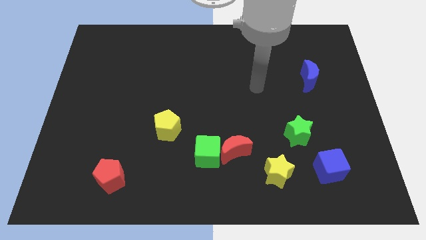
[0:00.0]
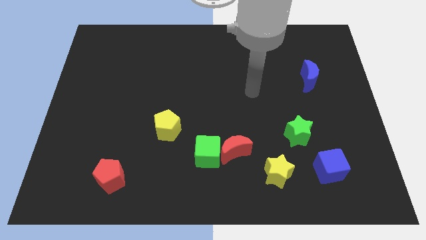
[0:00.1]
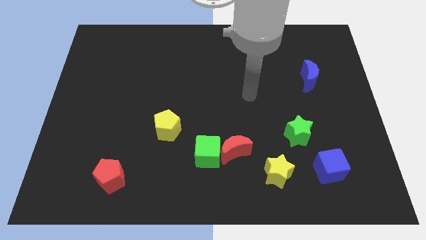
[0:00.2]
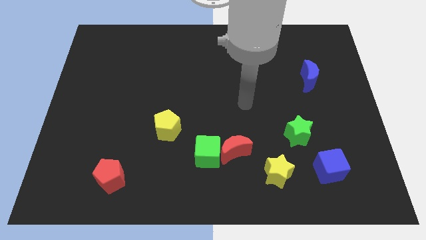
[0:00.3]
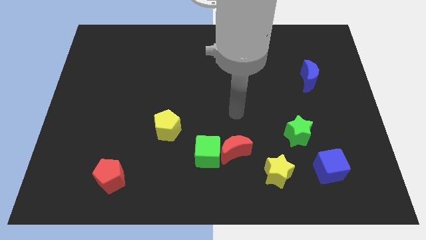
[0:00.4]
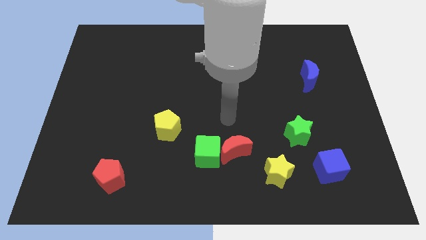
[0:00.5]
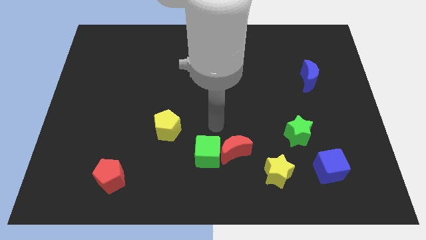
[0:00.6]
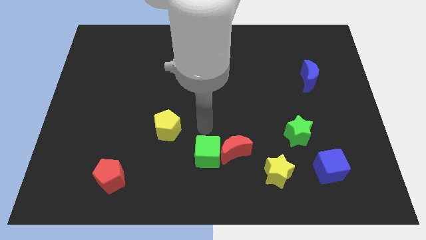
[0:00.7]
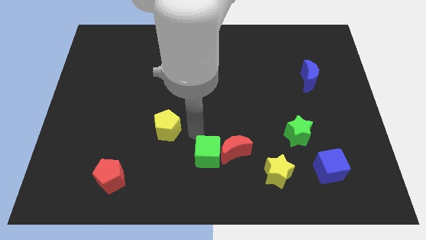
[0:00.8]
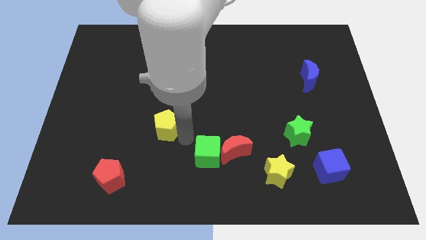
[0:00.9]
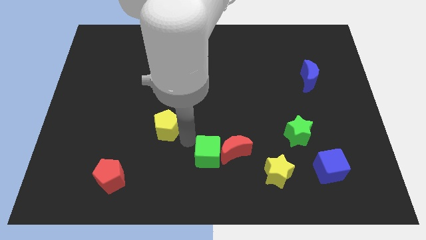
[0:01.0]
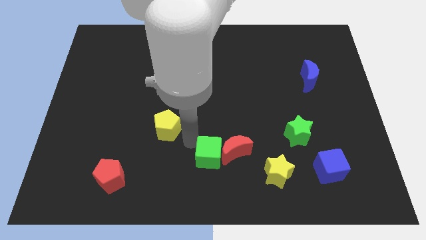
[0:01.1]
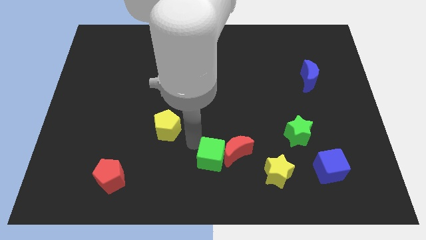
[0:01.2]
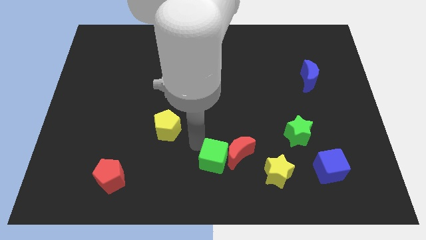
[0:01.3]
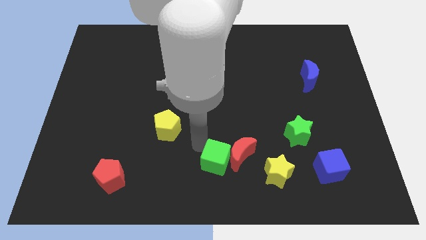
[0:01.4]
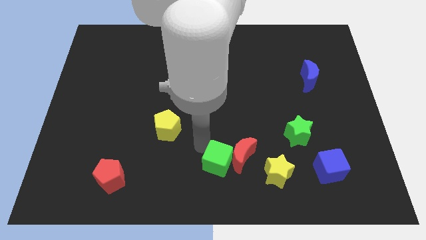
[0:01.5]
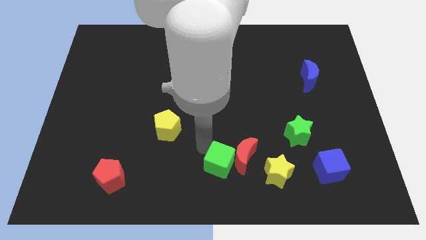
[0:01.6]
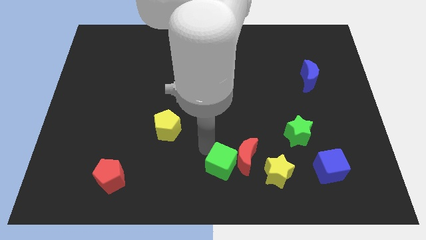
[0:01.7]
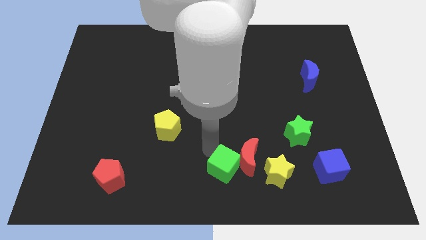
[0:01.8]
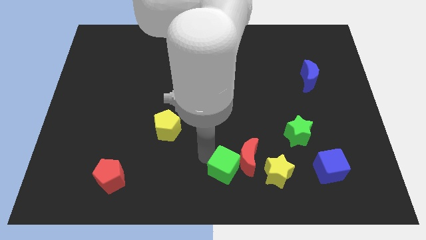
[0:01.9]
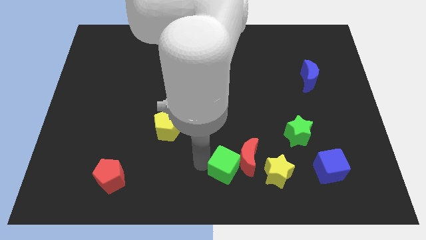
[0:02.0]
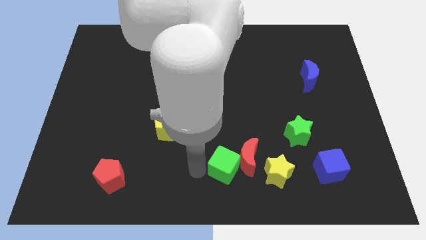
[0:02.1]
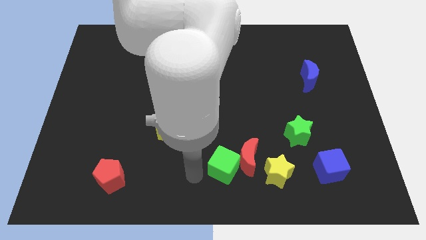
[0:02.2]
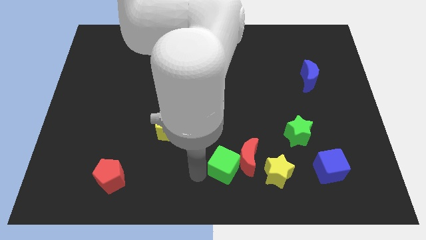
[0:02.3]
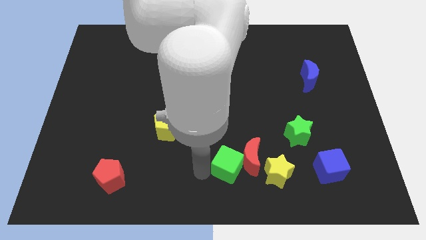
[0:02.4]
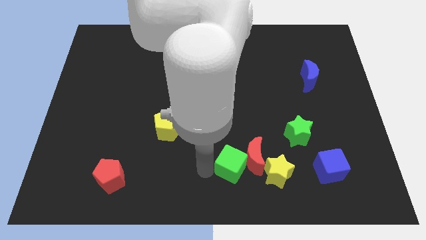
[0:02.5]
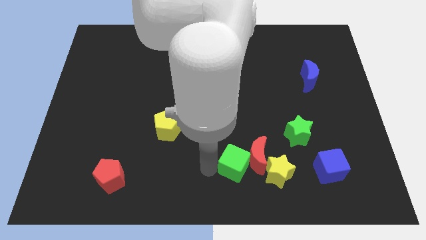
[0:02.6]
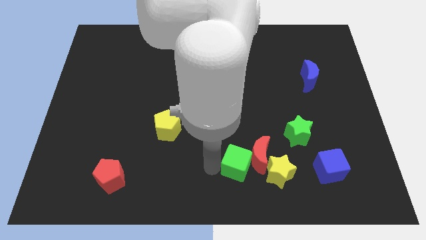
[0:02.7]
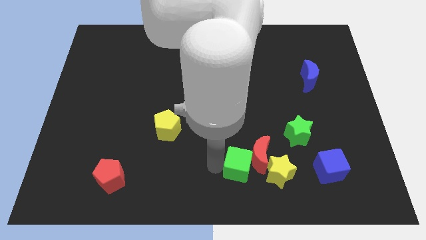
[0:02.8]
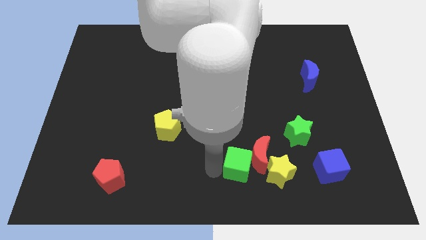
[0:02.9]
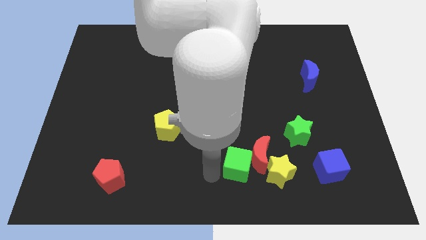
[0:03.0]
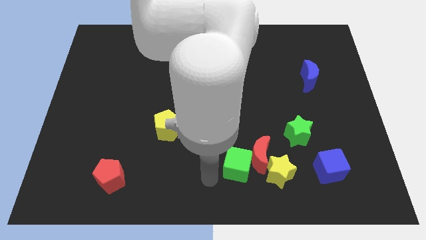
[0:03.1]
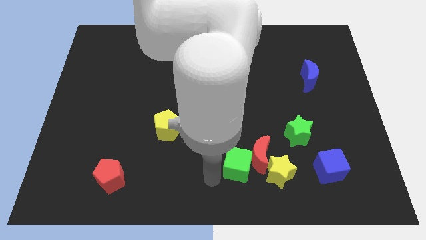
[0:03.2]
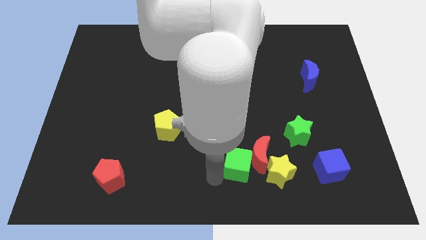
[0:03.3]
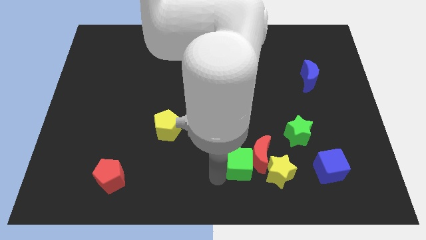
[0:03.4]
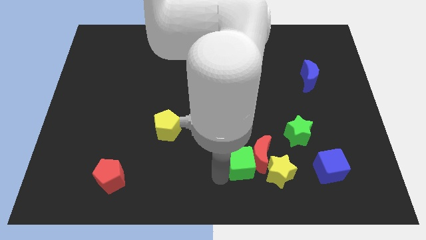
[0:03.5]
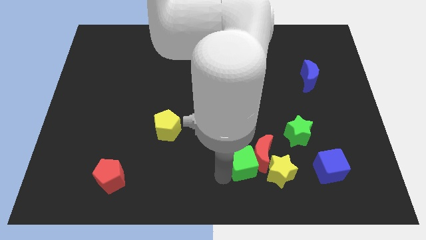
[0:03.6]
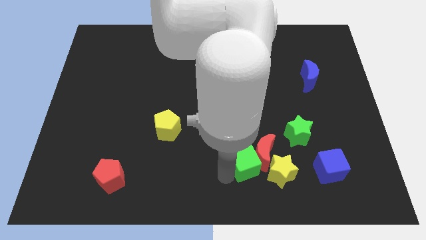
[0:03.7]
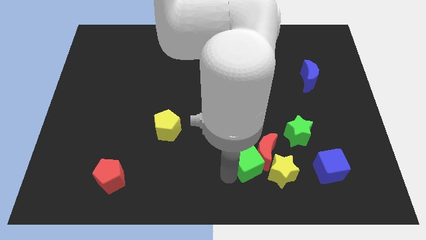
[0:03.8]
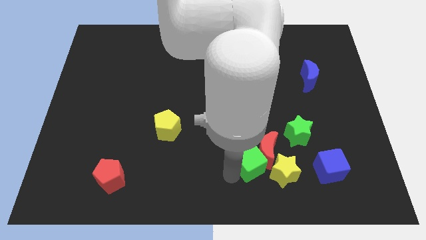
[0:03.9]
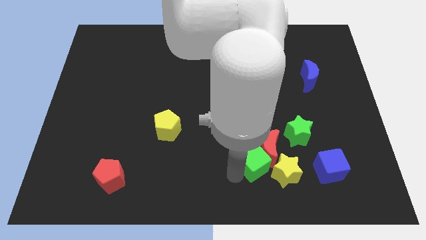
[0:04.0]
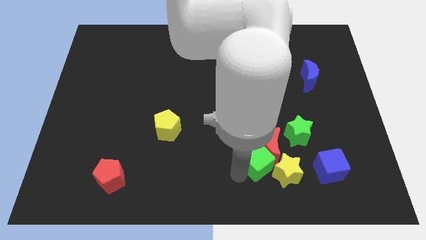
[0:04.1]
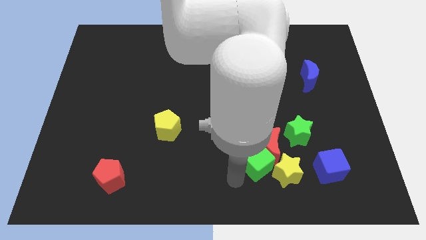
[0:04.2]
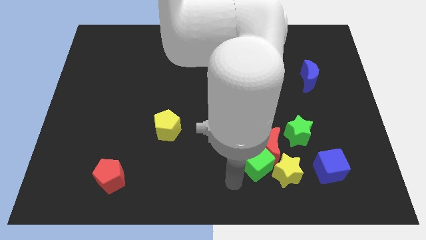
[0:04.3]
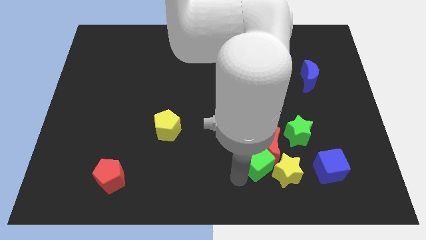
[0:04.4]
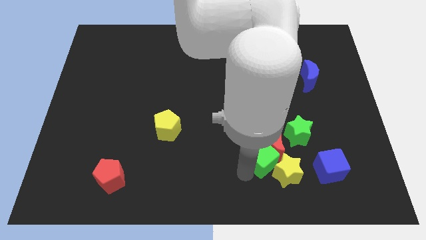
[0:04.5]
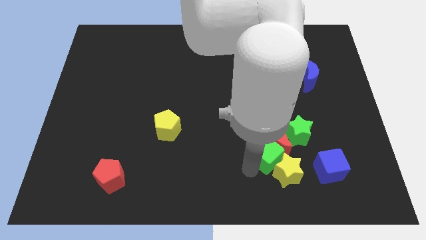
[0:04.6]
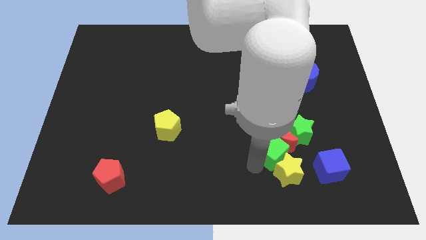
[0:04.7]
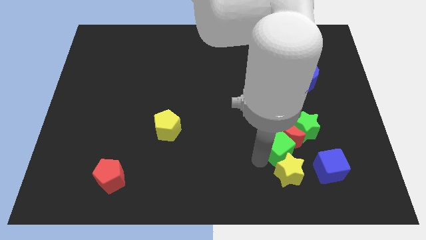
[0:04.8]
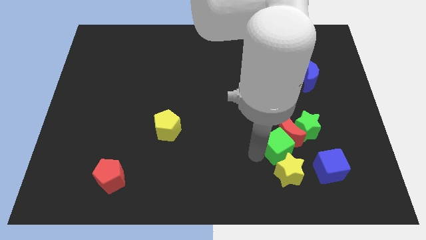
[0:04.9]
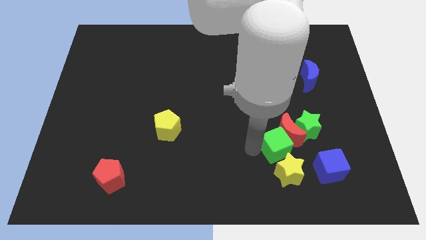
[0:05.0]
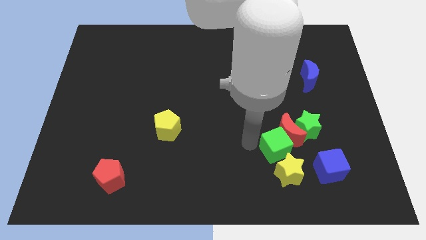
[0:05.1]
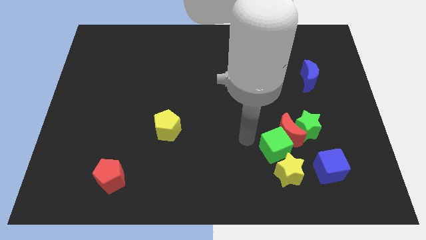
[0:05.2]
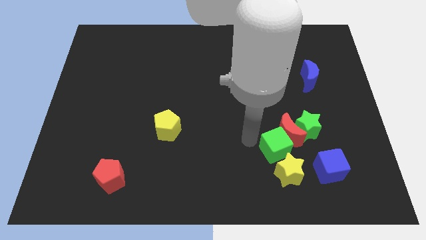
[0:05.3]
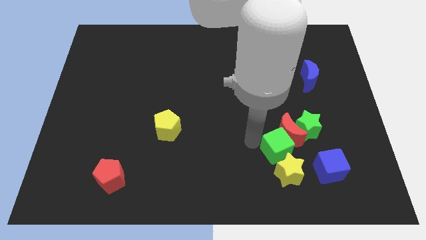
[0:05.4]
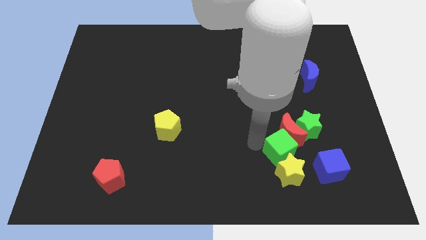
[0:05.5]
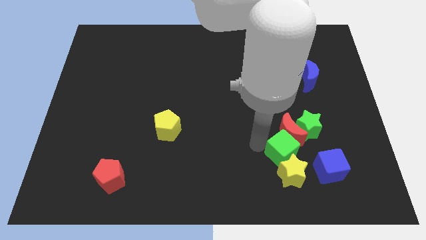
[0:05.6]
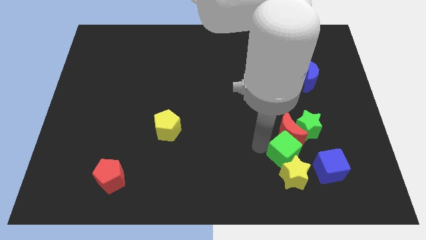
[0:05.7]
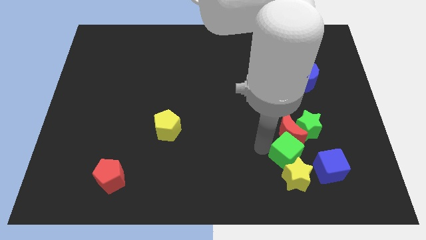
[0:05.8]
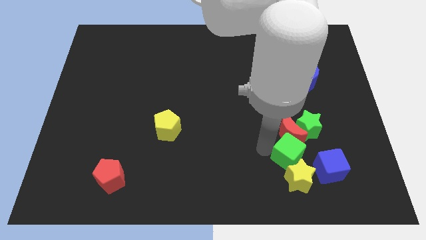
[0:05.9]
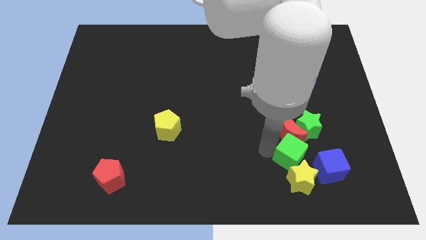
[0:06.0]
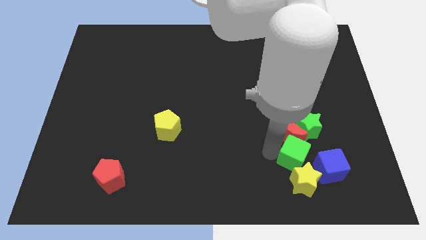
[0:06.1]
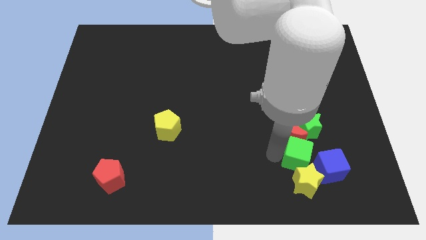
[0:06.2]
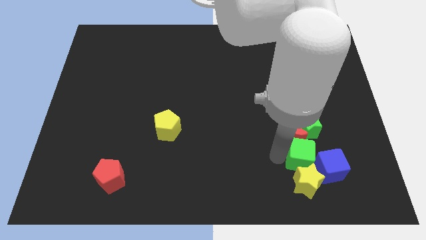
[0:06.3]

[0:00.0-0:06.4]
put the green cube to the blue cube
